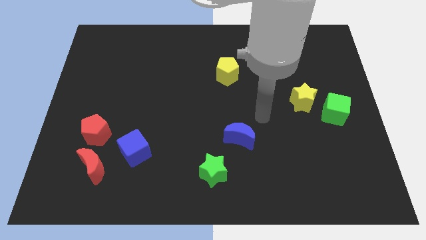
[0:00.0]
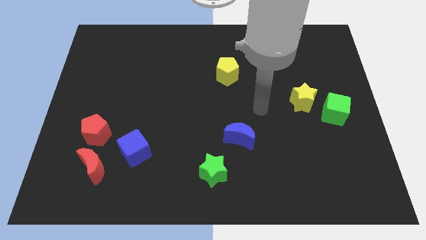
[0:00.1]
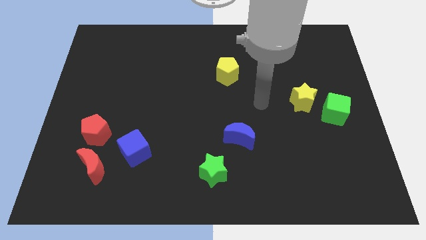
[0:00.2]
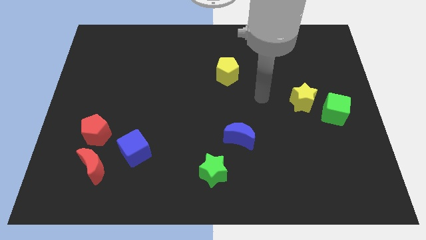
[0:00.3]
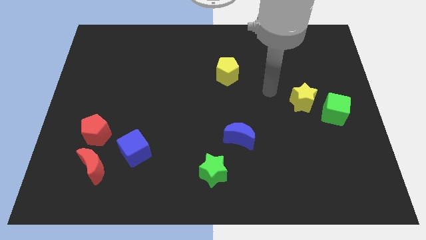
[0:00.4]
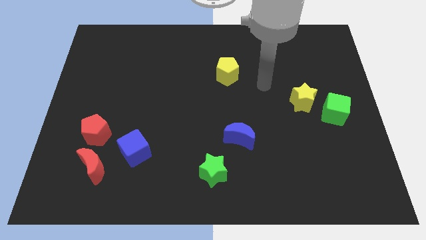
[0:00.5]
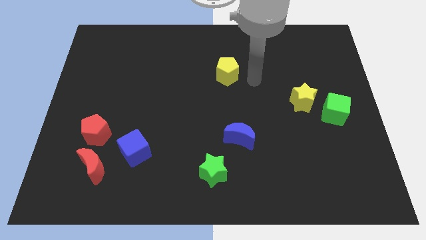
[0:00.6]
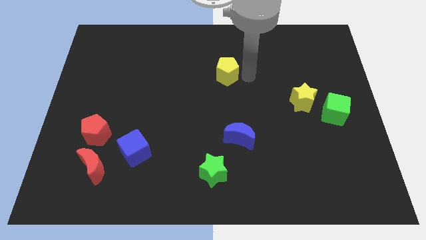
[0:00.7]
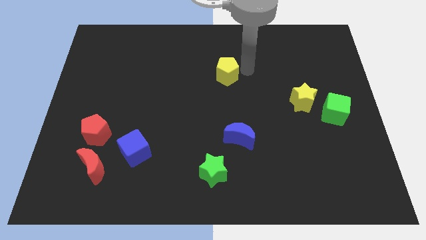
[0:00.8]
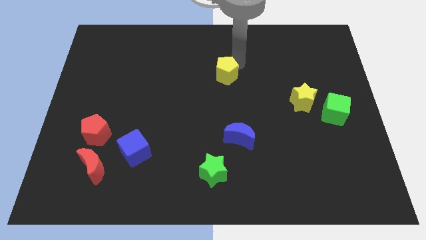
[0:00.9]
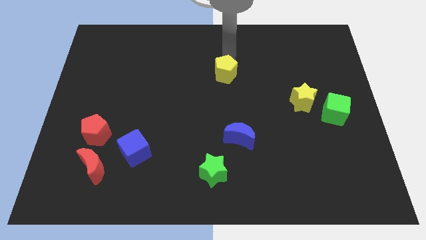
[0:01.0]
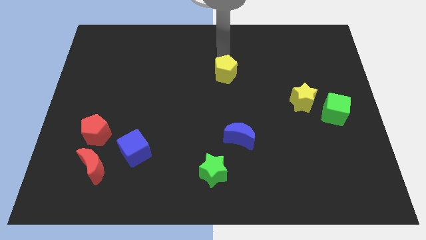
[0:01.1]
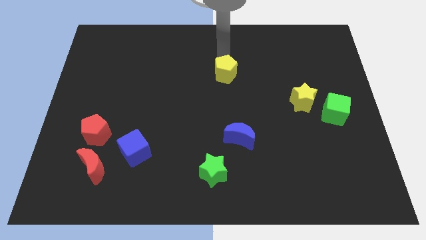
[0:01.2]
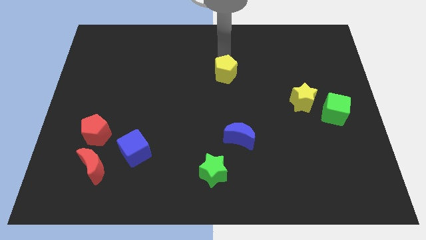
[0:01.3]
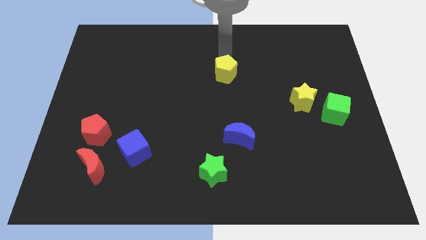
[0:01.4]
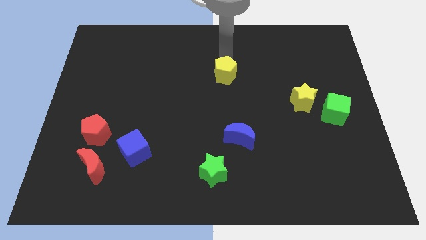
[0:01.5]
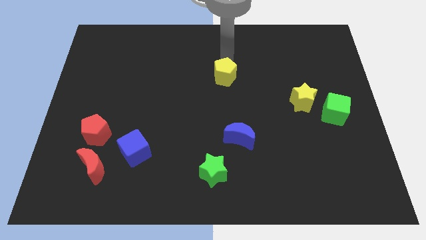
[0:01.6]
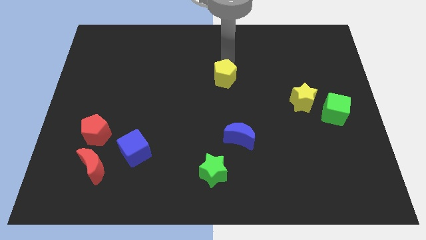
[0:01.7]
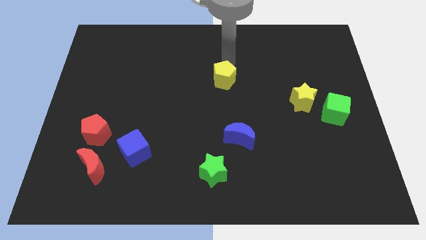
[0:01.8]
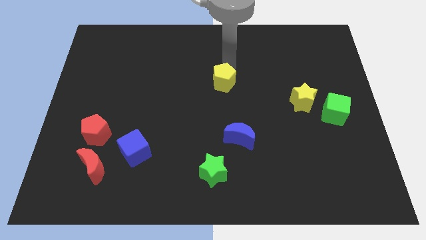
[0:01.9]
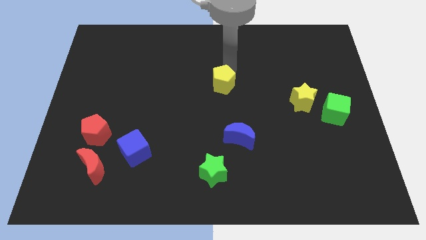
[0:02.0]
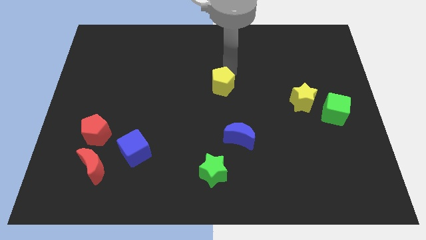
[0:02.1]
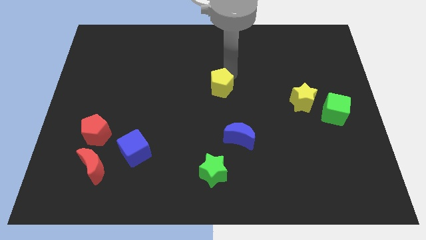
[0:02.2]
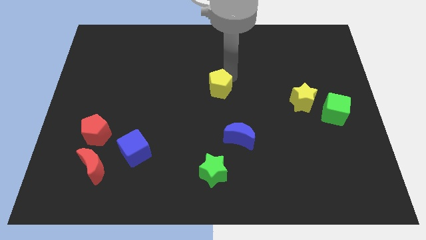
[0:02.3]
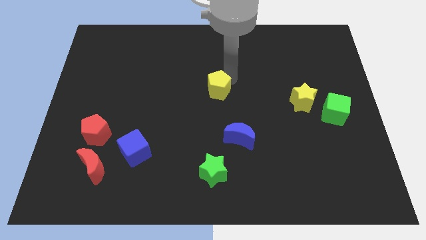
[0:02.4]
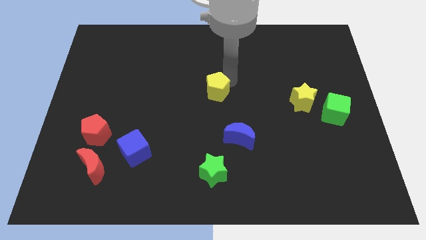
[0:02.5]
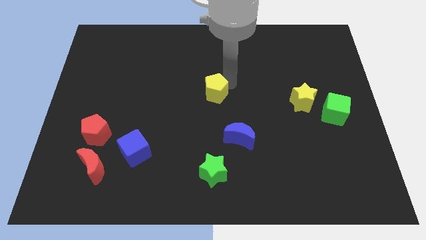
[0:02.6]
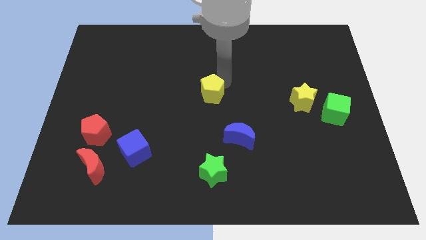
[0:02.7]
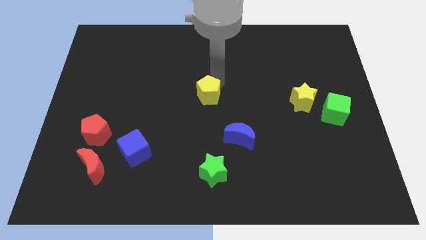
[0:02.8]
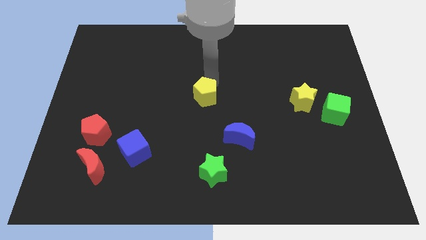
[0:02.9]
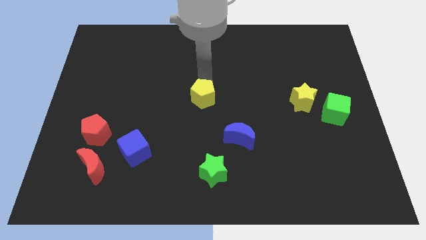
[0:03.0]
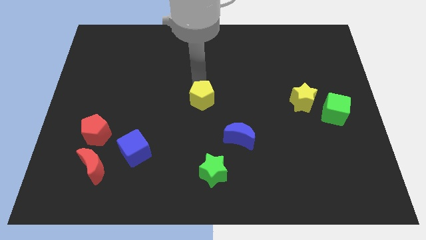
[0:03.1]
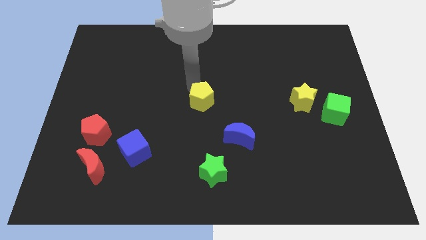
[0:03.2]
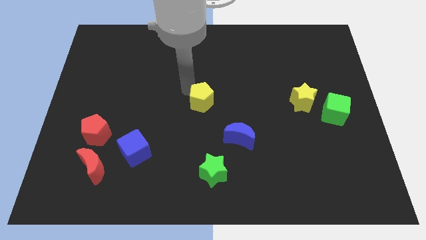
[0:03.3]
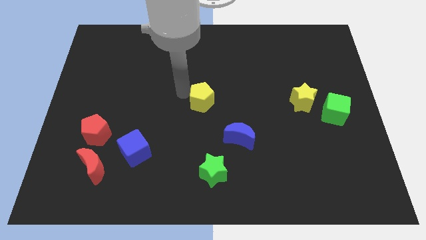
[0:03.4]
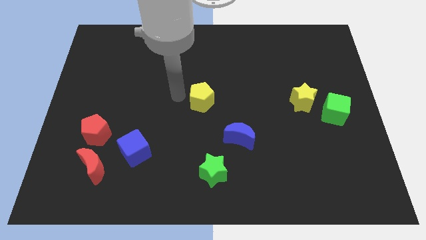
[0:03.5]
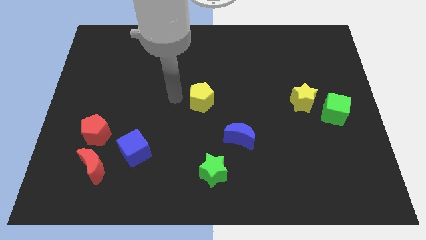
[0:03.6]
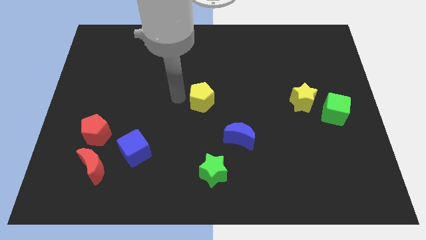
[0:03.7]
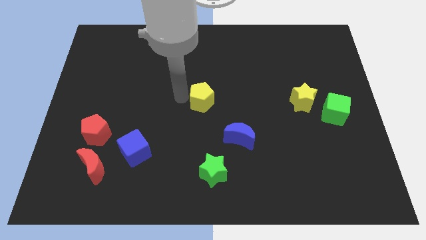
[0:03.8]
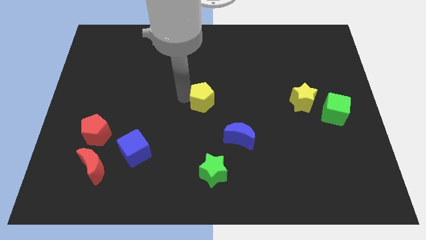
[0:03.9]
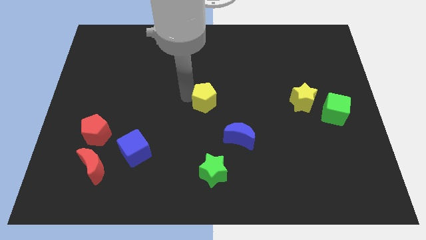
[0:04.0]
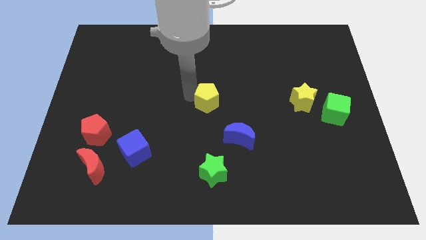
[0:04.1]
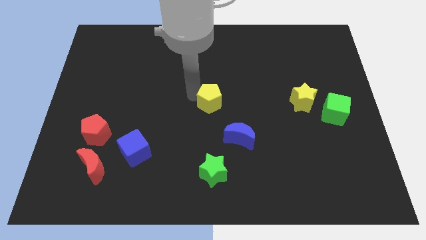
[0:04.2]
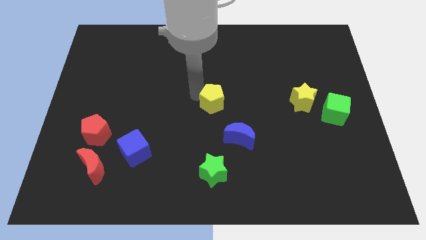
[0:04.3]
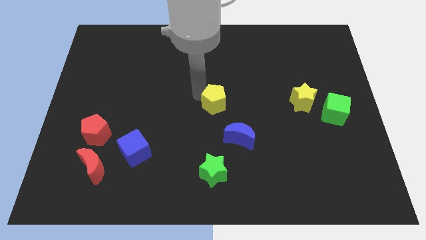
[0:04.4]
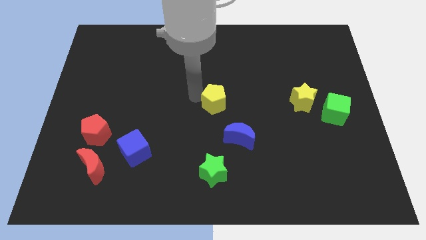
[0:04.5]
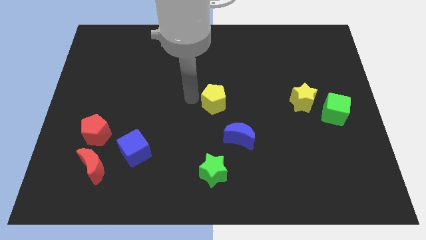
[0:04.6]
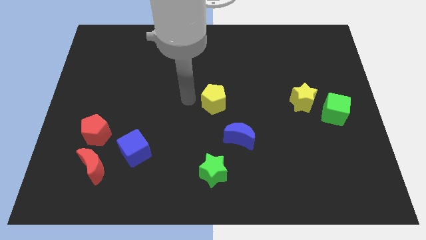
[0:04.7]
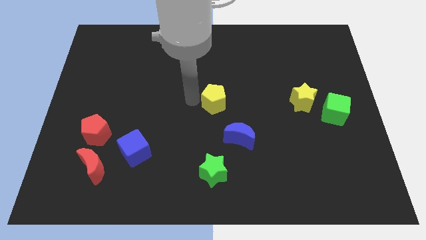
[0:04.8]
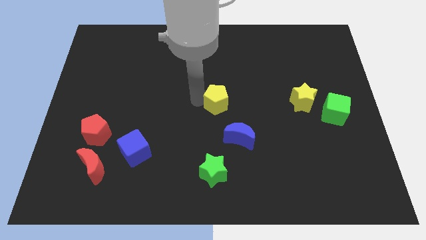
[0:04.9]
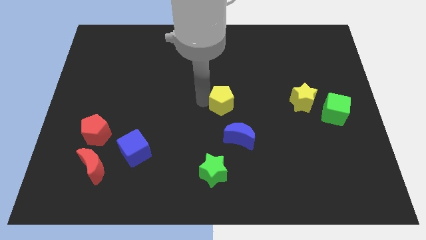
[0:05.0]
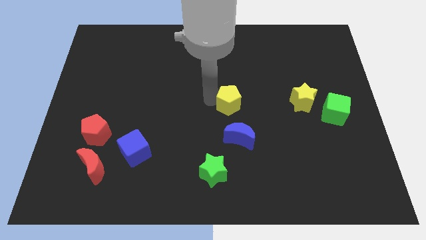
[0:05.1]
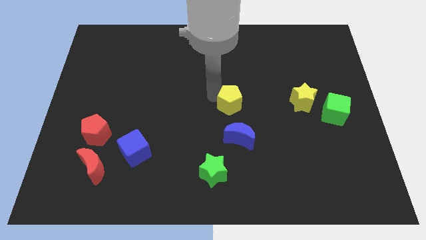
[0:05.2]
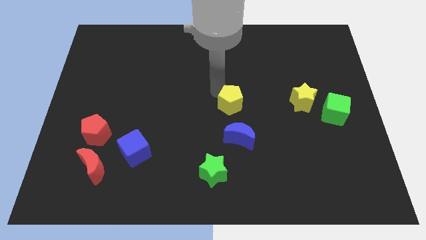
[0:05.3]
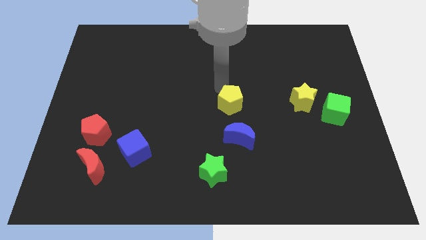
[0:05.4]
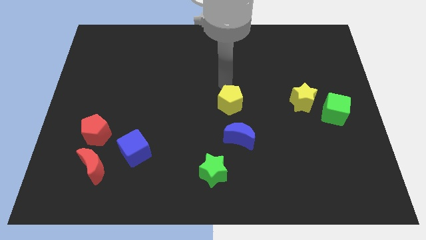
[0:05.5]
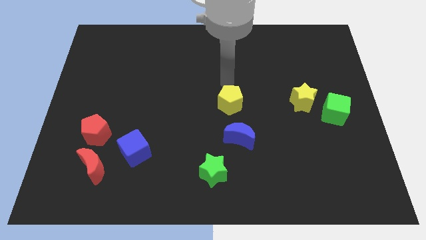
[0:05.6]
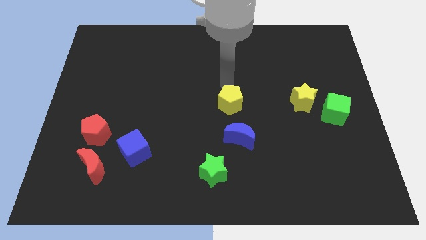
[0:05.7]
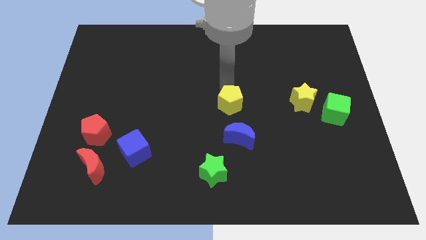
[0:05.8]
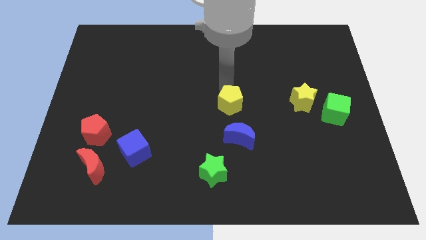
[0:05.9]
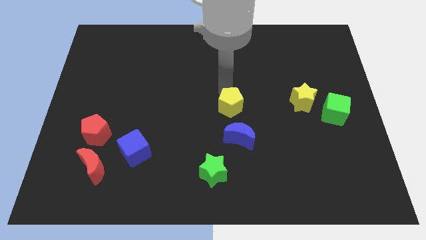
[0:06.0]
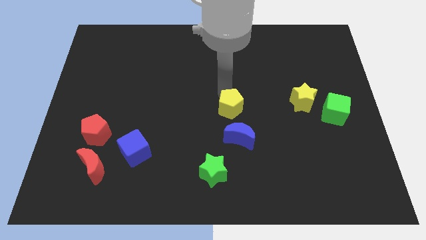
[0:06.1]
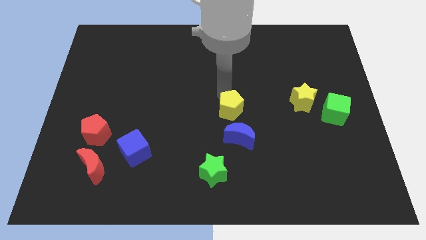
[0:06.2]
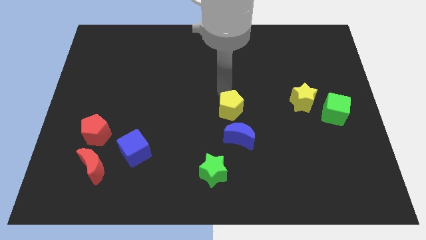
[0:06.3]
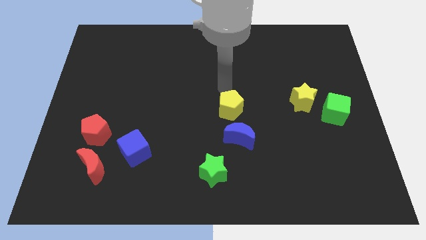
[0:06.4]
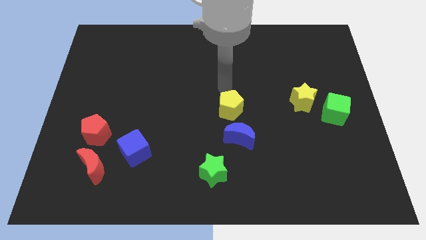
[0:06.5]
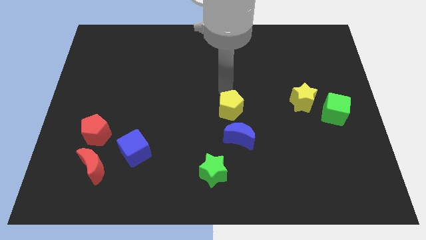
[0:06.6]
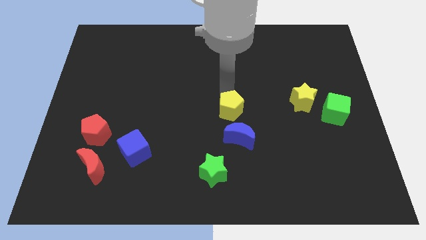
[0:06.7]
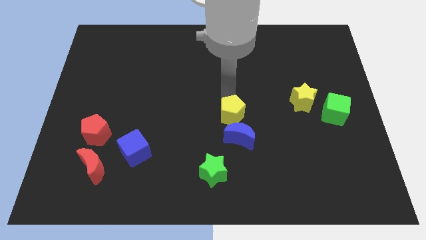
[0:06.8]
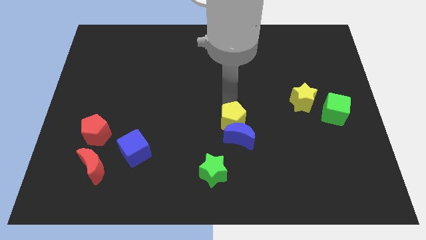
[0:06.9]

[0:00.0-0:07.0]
put the yellow pentagon towards the blue moon

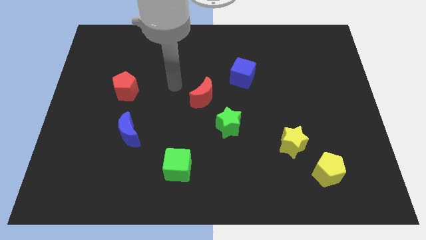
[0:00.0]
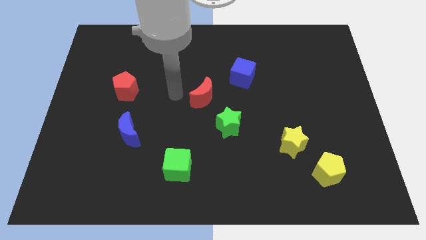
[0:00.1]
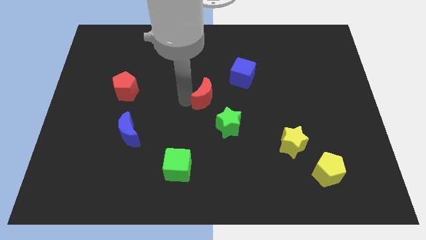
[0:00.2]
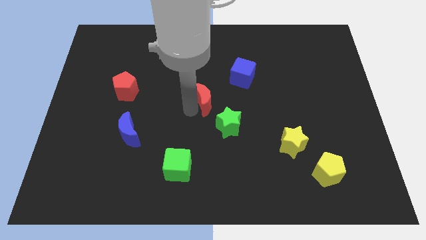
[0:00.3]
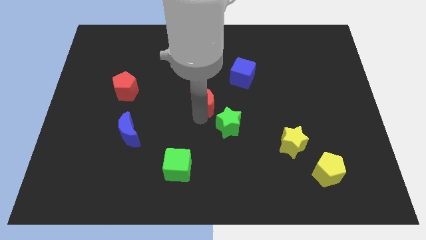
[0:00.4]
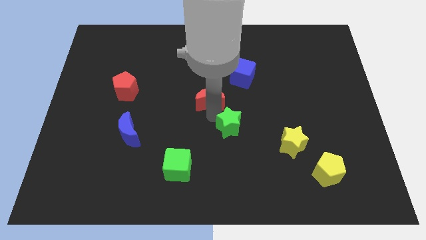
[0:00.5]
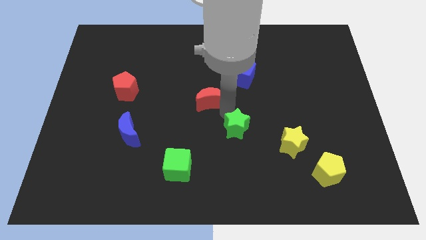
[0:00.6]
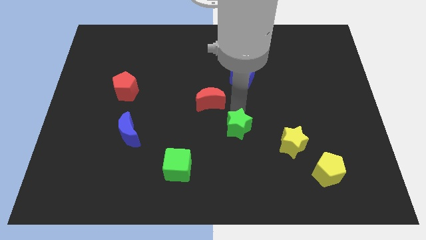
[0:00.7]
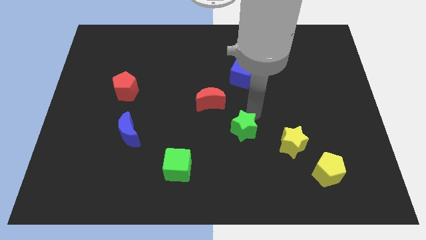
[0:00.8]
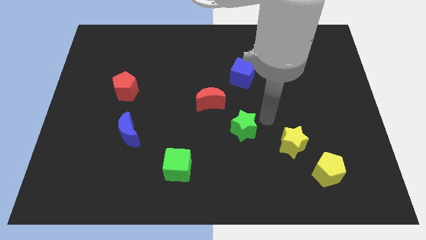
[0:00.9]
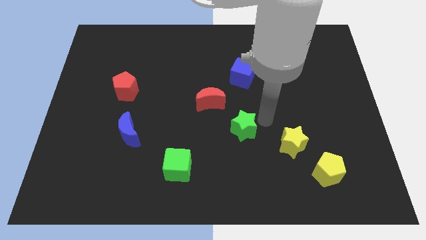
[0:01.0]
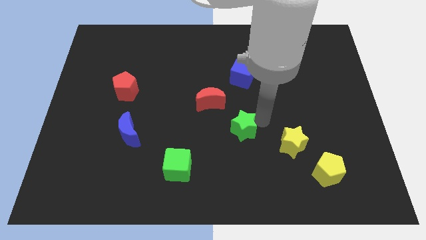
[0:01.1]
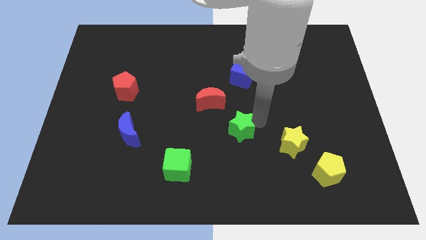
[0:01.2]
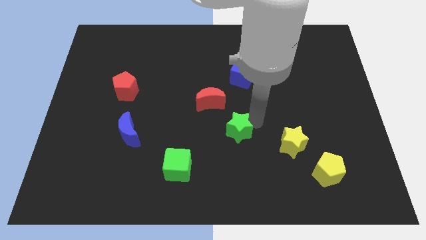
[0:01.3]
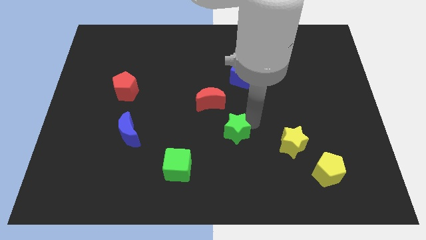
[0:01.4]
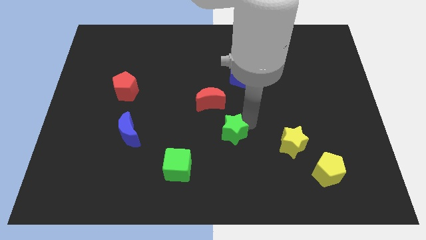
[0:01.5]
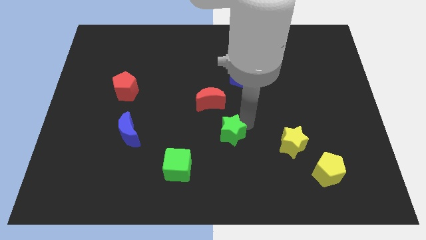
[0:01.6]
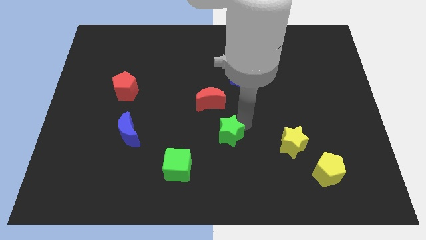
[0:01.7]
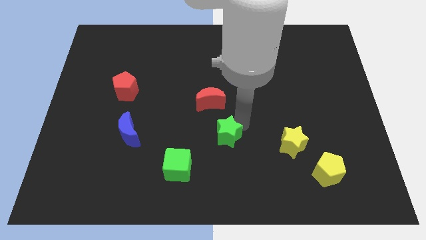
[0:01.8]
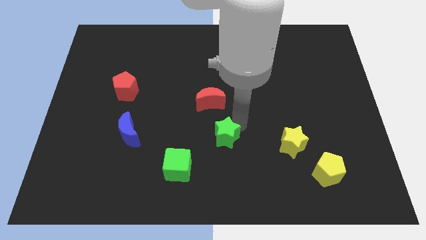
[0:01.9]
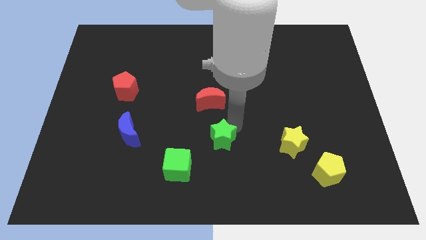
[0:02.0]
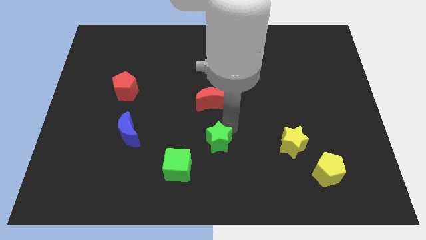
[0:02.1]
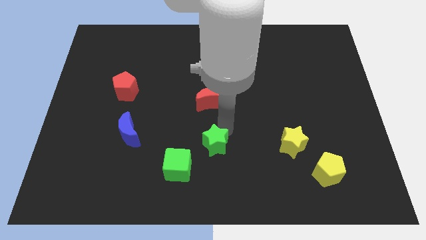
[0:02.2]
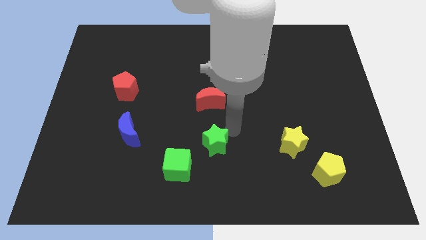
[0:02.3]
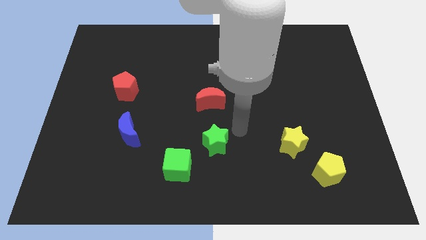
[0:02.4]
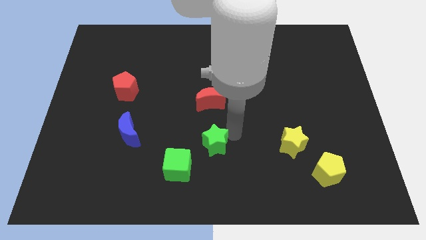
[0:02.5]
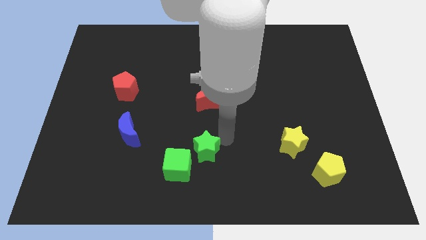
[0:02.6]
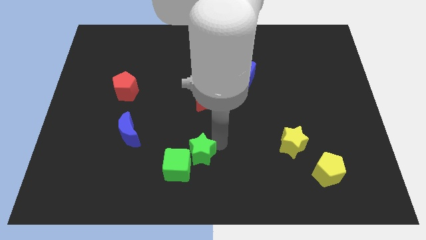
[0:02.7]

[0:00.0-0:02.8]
slide the green star close to the green cube
